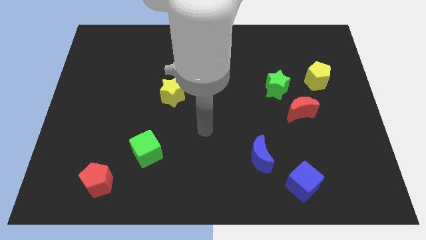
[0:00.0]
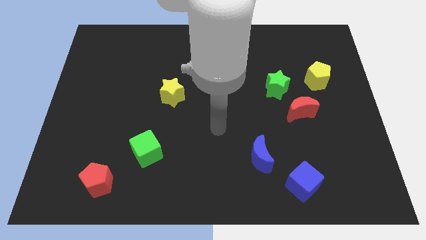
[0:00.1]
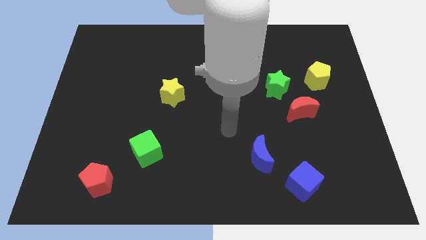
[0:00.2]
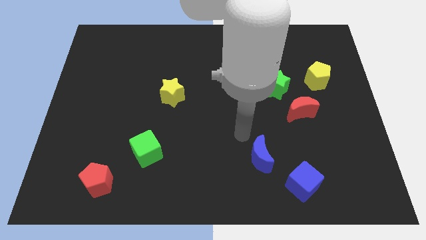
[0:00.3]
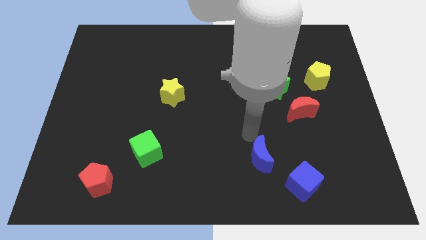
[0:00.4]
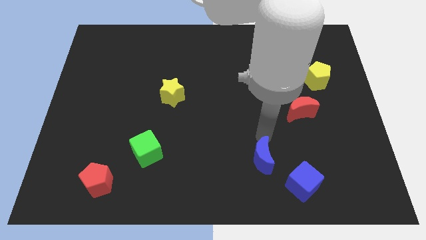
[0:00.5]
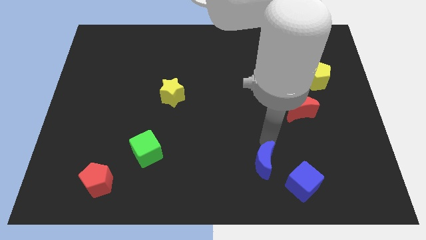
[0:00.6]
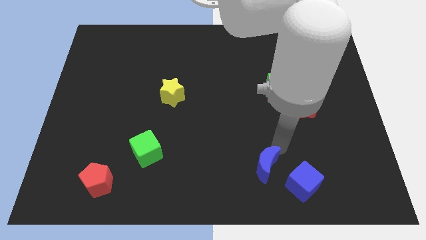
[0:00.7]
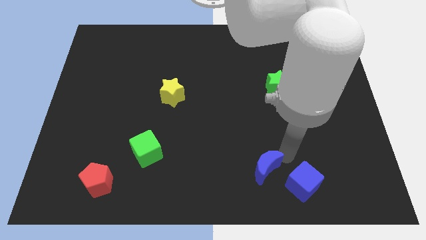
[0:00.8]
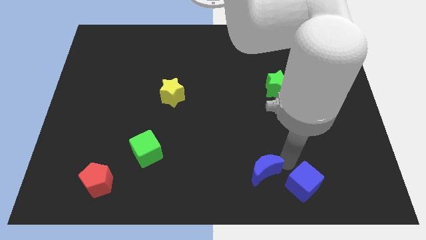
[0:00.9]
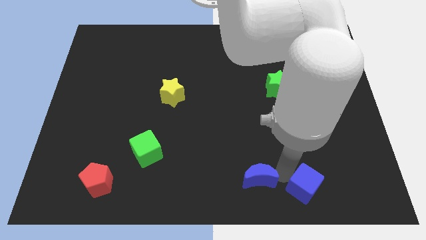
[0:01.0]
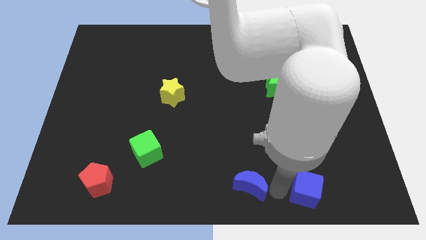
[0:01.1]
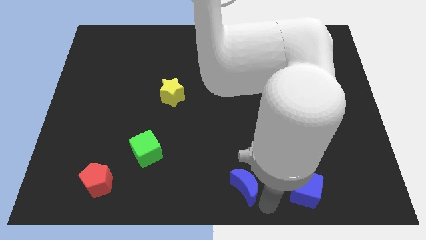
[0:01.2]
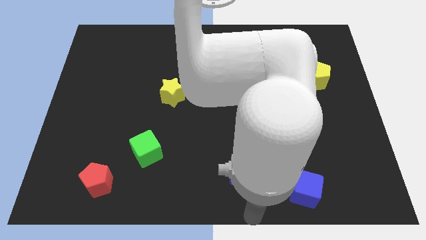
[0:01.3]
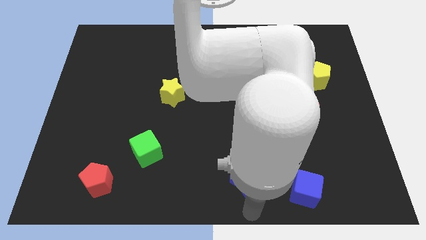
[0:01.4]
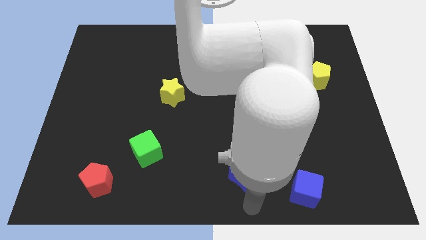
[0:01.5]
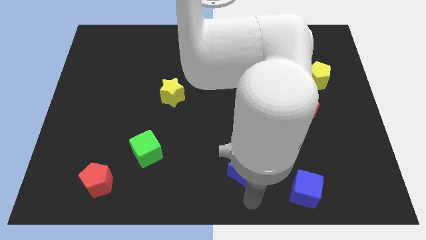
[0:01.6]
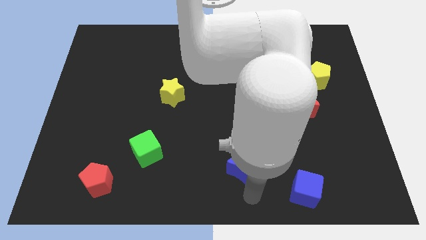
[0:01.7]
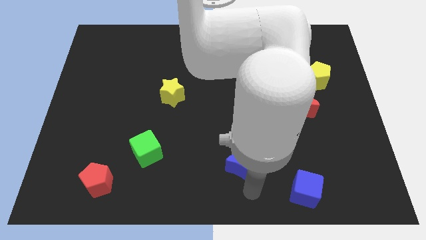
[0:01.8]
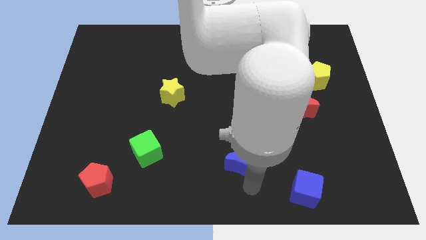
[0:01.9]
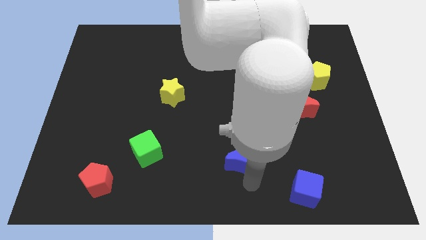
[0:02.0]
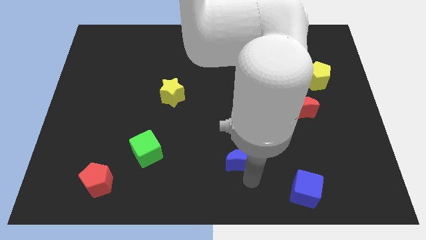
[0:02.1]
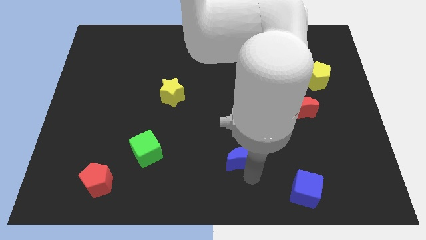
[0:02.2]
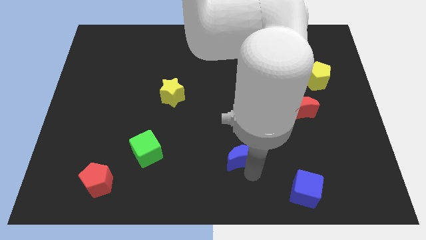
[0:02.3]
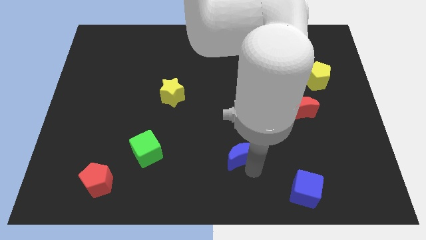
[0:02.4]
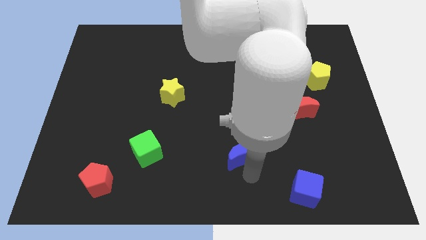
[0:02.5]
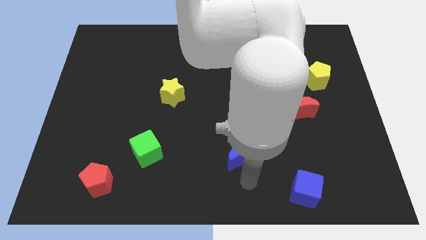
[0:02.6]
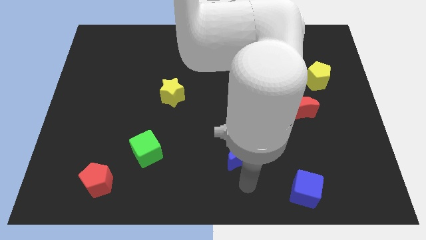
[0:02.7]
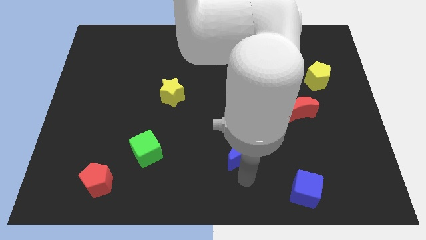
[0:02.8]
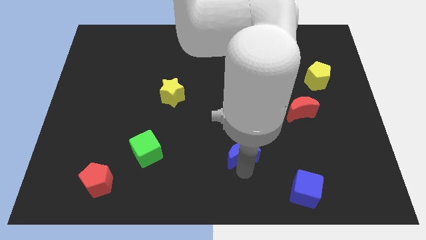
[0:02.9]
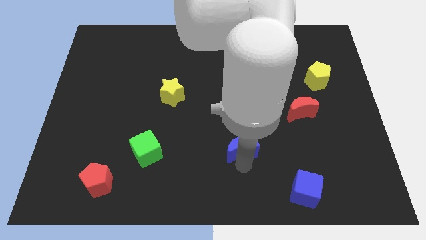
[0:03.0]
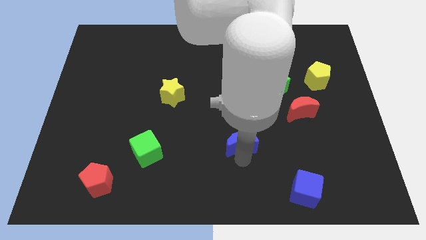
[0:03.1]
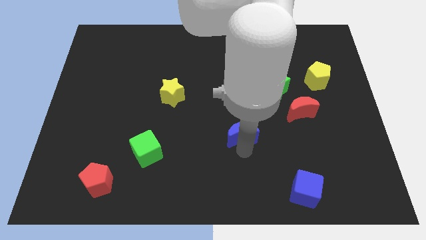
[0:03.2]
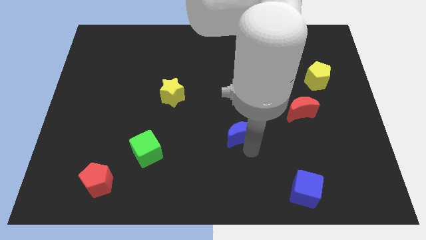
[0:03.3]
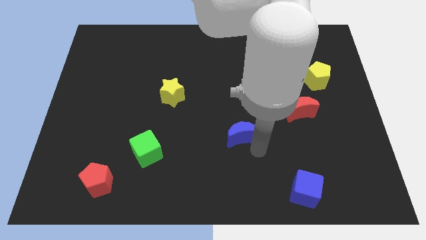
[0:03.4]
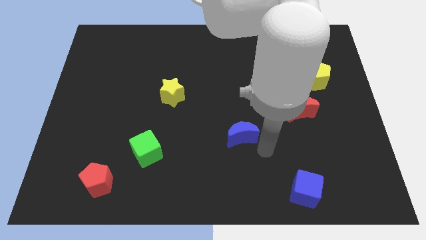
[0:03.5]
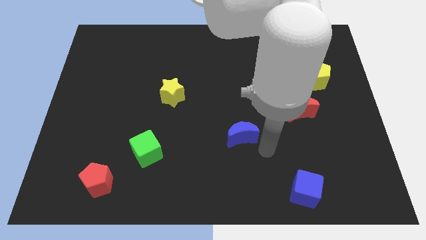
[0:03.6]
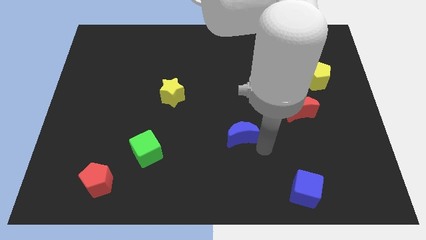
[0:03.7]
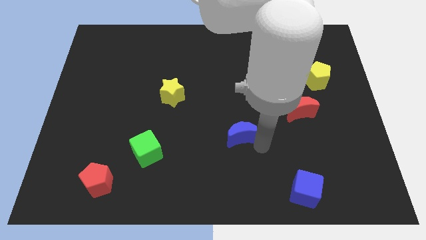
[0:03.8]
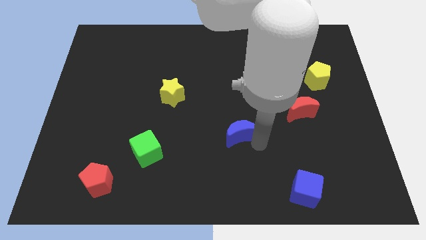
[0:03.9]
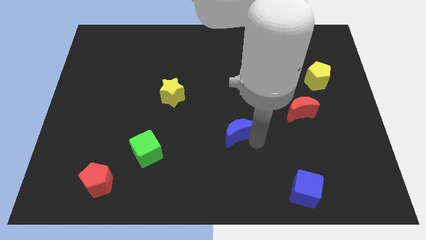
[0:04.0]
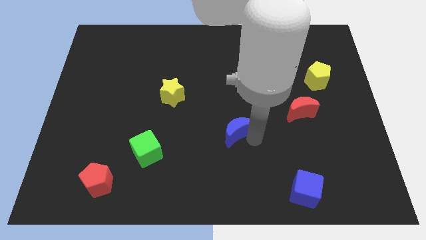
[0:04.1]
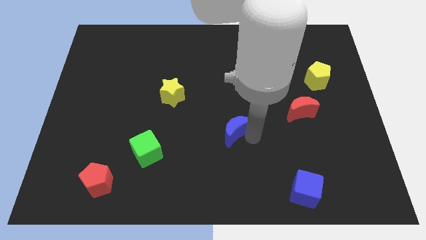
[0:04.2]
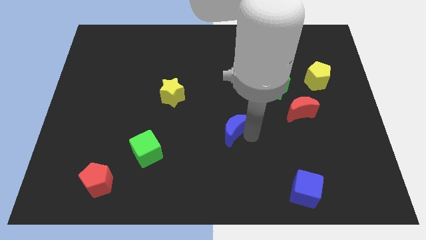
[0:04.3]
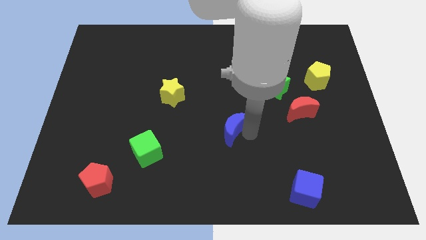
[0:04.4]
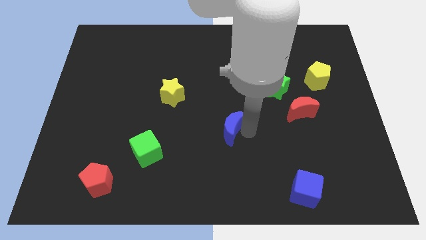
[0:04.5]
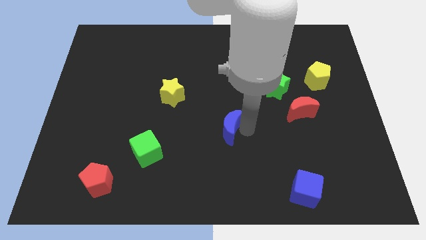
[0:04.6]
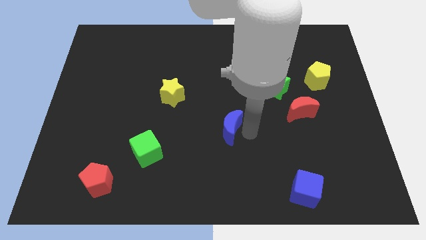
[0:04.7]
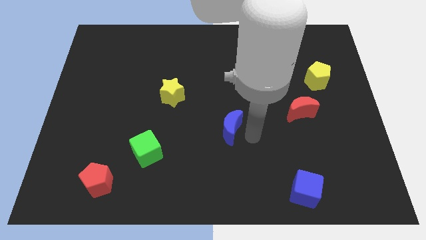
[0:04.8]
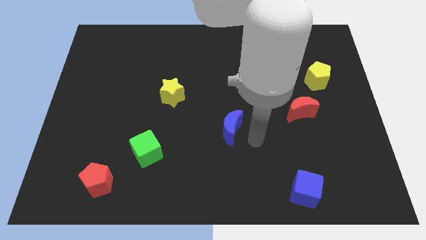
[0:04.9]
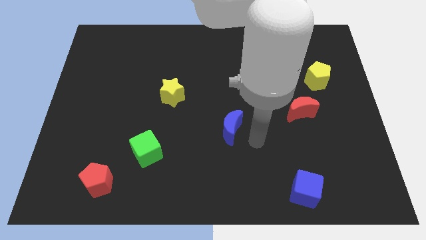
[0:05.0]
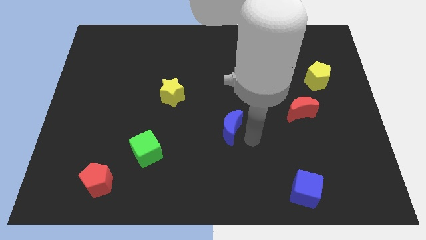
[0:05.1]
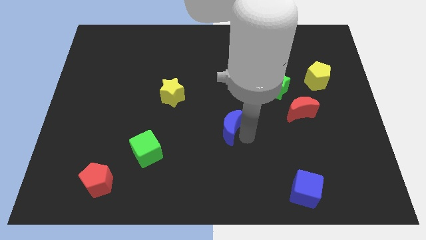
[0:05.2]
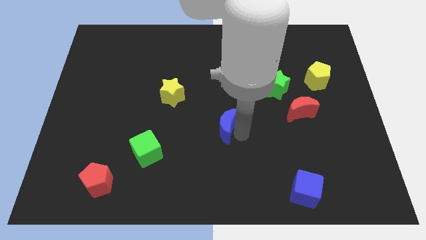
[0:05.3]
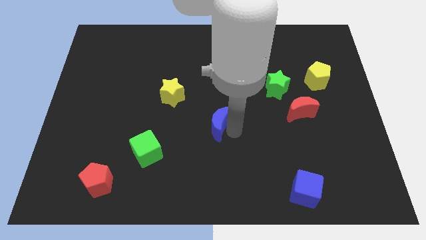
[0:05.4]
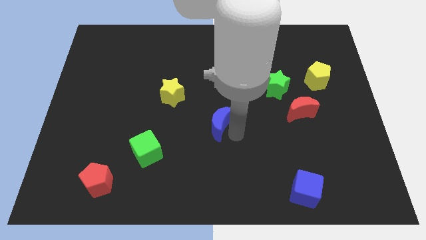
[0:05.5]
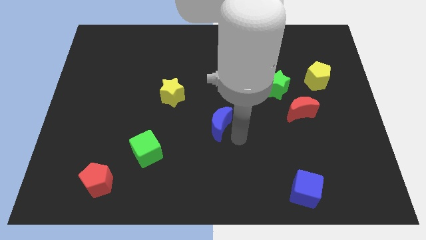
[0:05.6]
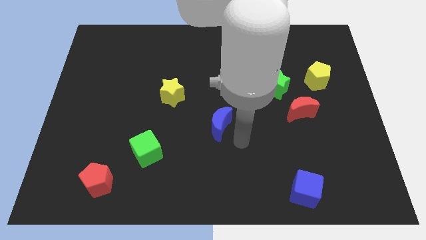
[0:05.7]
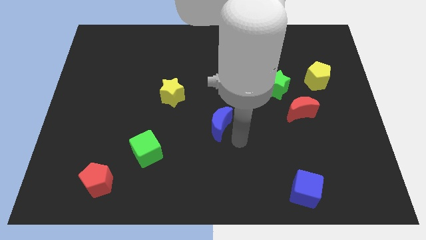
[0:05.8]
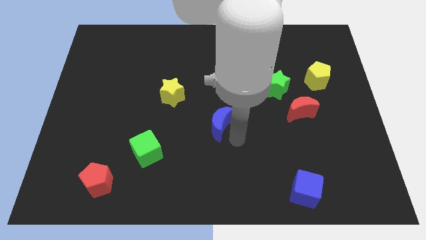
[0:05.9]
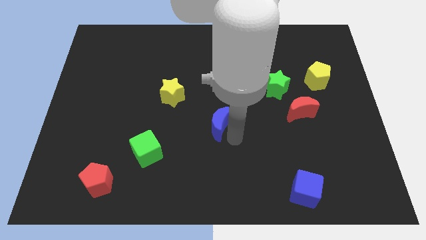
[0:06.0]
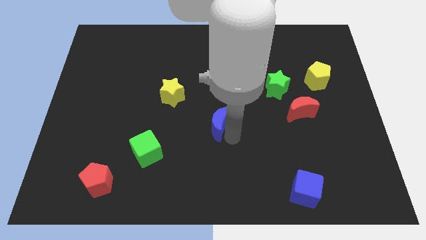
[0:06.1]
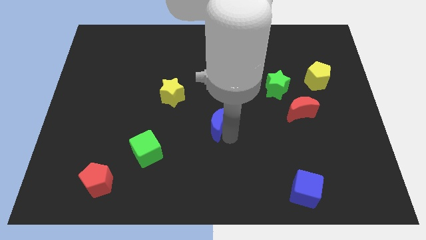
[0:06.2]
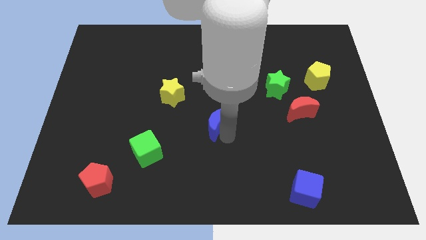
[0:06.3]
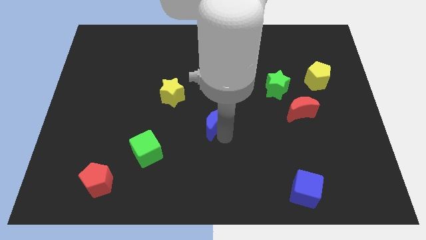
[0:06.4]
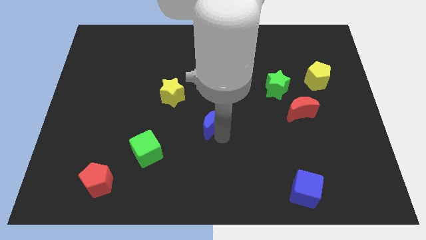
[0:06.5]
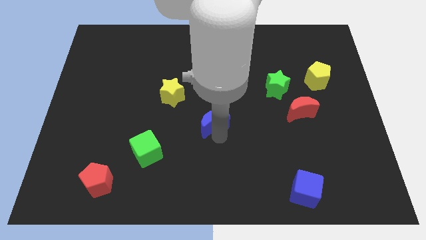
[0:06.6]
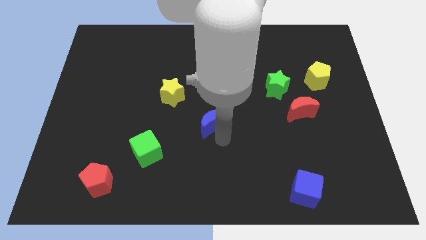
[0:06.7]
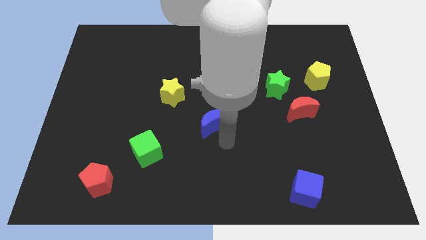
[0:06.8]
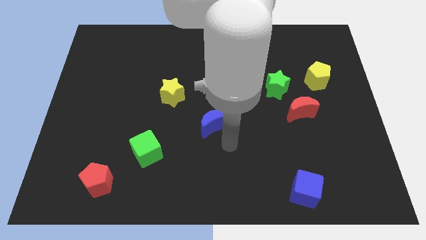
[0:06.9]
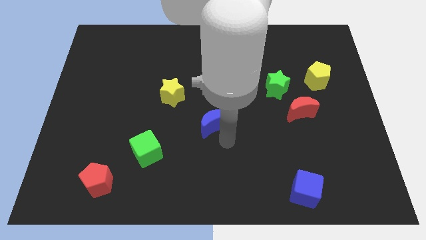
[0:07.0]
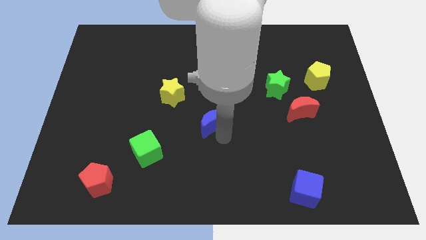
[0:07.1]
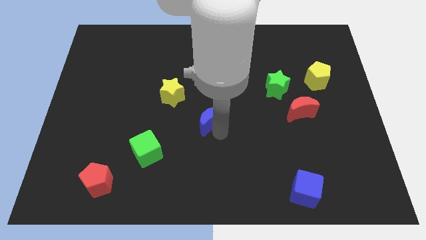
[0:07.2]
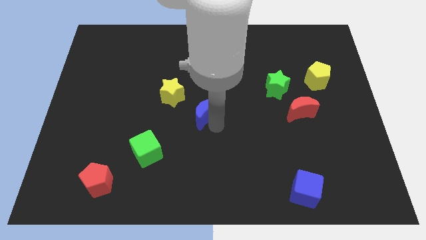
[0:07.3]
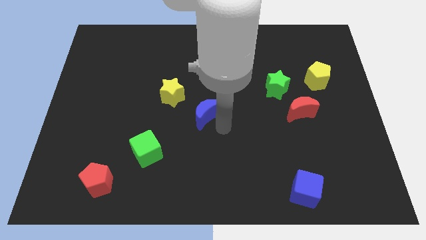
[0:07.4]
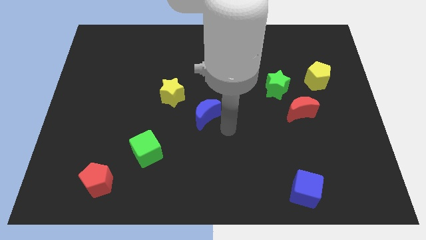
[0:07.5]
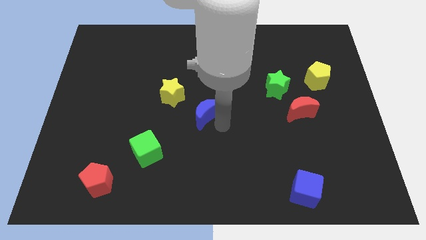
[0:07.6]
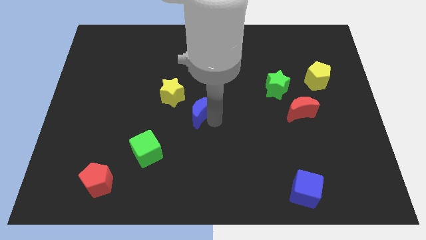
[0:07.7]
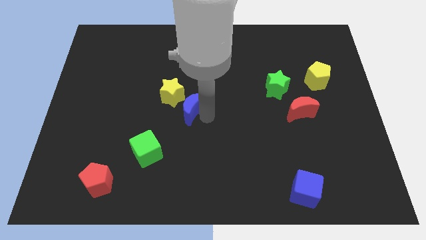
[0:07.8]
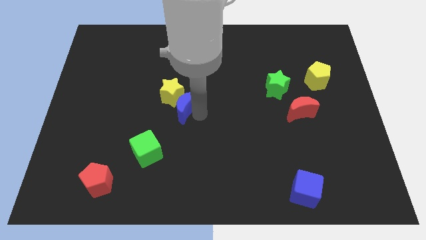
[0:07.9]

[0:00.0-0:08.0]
slide the blue moon close to the yellow star
